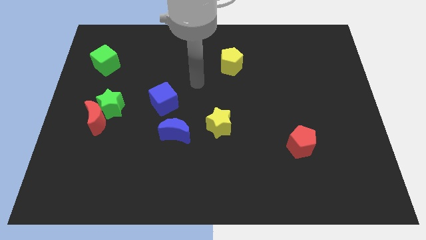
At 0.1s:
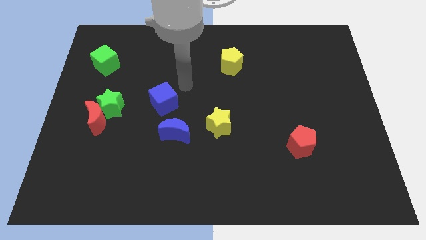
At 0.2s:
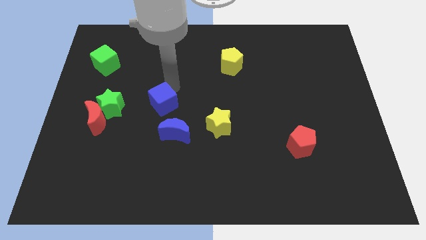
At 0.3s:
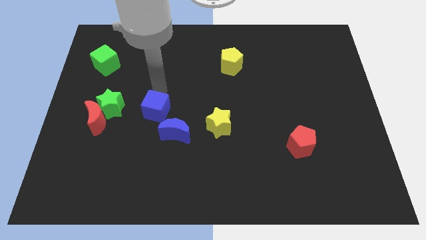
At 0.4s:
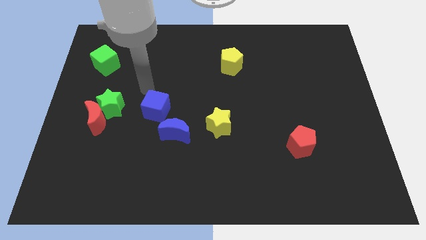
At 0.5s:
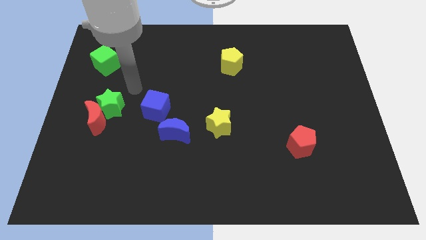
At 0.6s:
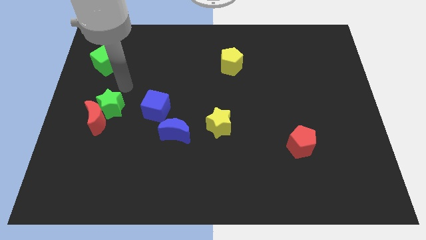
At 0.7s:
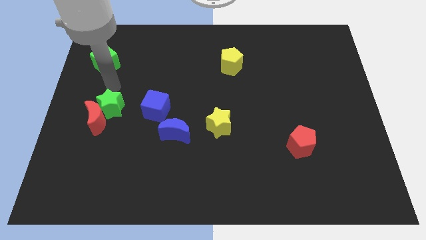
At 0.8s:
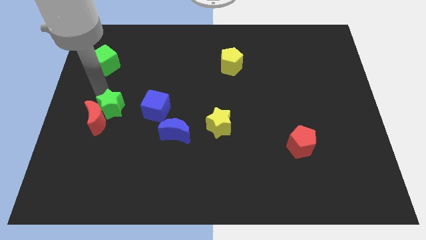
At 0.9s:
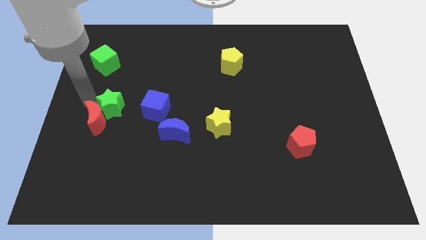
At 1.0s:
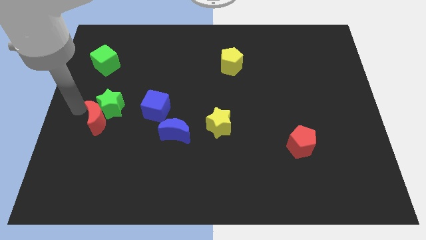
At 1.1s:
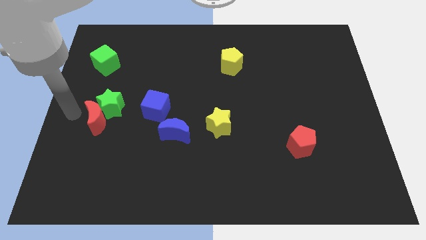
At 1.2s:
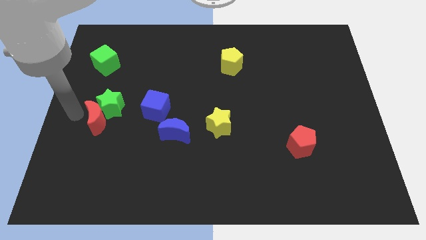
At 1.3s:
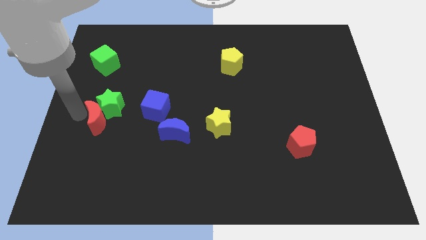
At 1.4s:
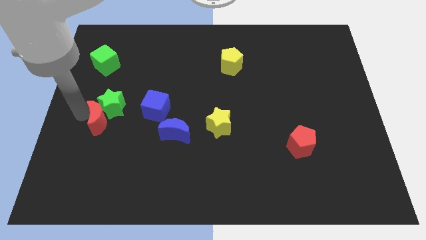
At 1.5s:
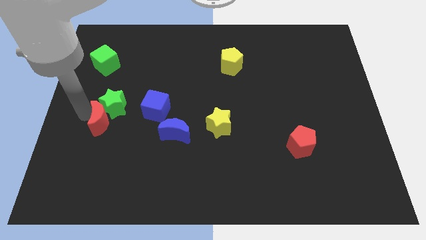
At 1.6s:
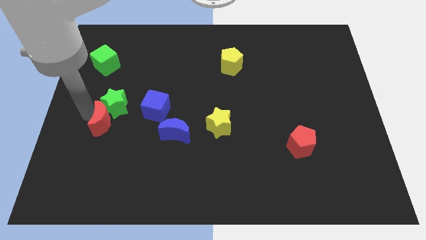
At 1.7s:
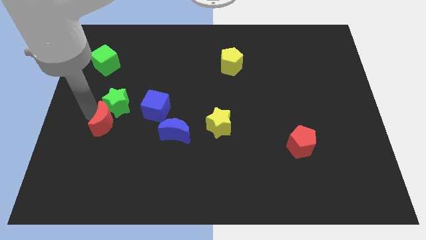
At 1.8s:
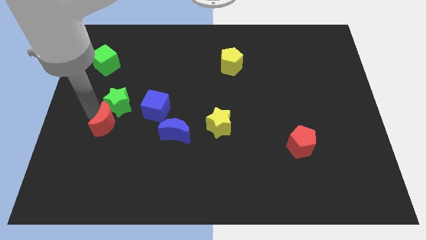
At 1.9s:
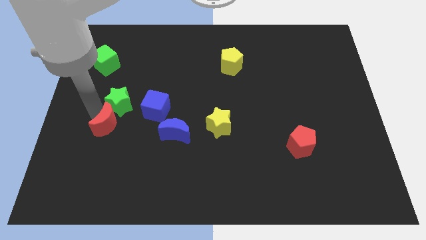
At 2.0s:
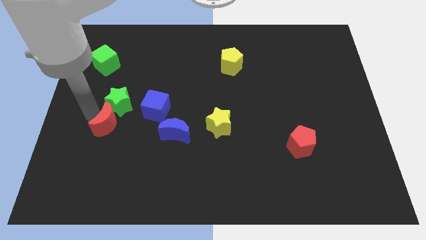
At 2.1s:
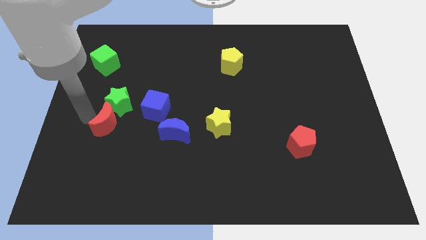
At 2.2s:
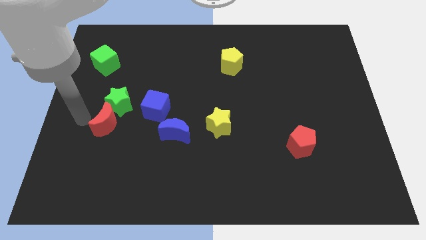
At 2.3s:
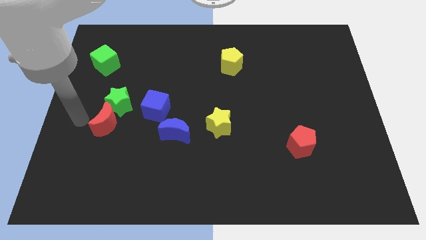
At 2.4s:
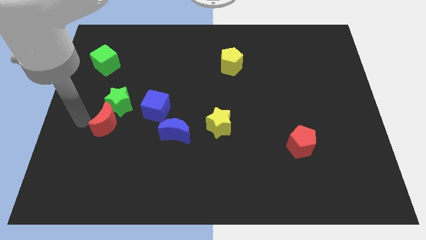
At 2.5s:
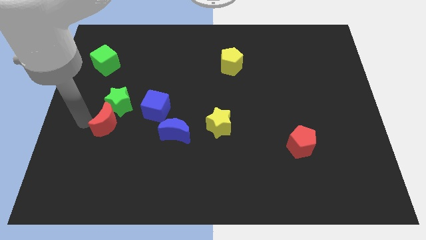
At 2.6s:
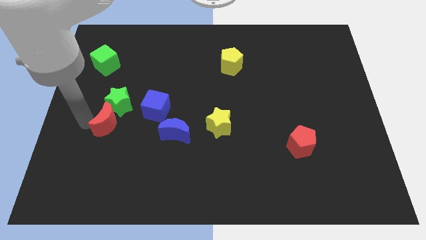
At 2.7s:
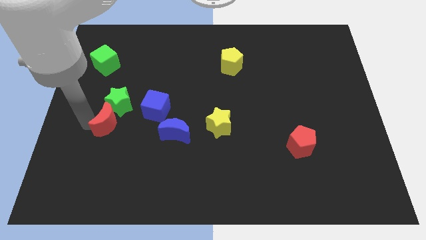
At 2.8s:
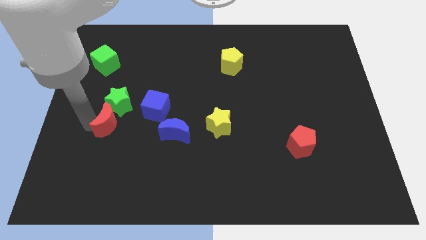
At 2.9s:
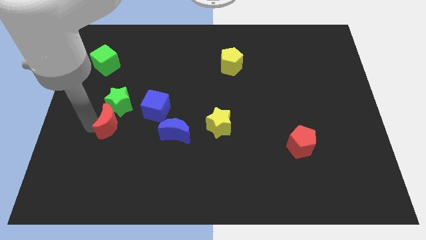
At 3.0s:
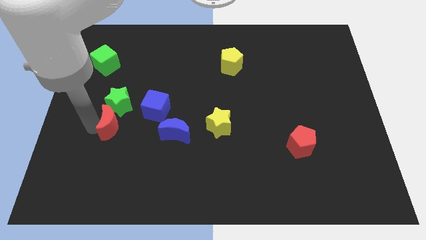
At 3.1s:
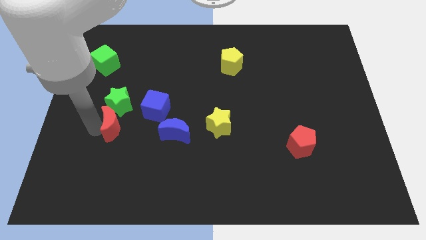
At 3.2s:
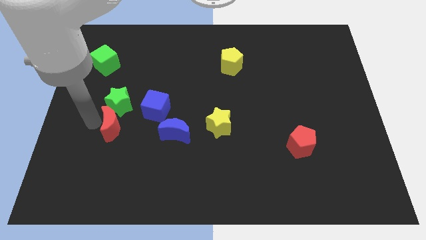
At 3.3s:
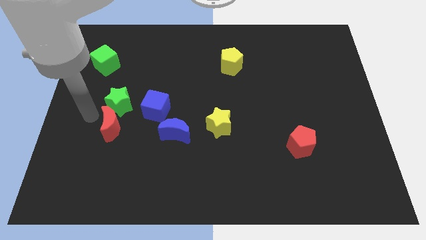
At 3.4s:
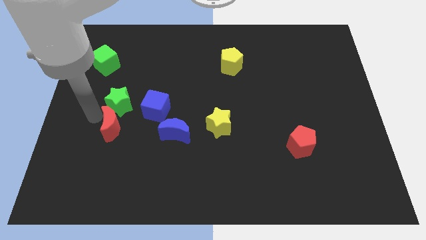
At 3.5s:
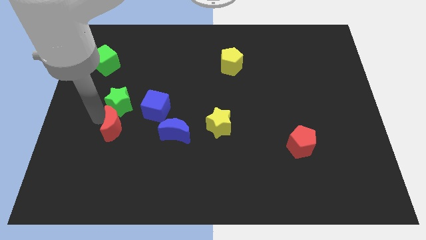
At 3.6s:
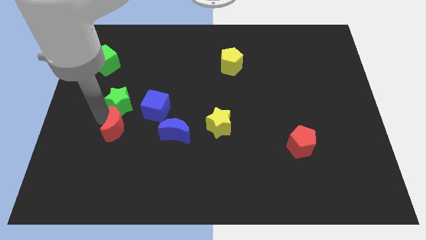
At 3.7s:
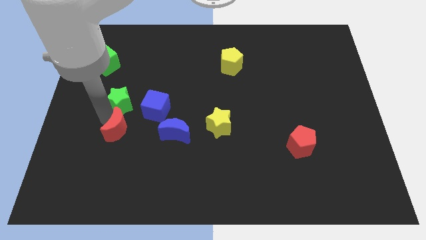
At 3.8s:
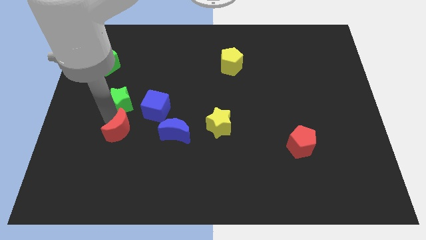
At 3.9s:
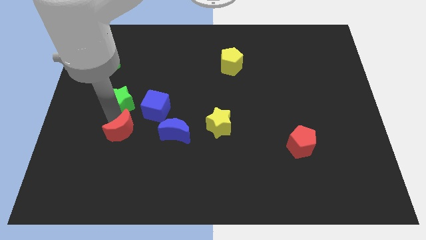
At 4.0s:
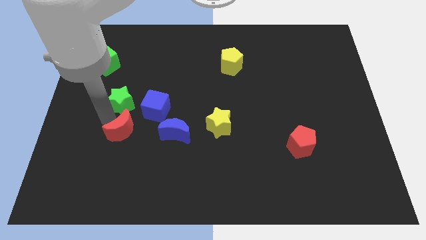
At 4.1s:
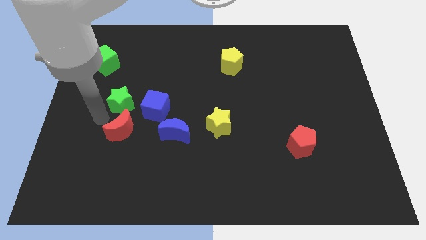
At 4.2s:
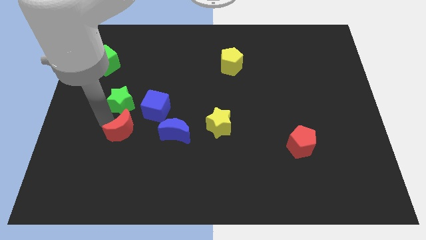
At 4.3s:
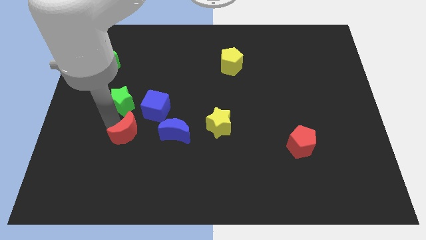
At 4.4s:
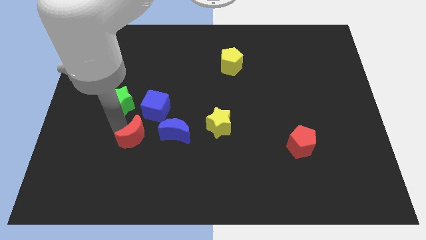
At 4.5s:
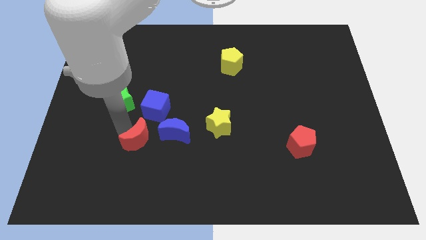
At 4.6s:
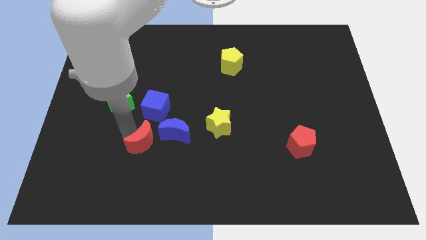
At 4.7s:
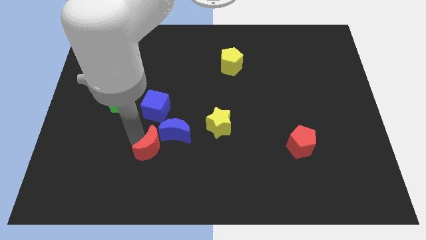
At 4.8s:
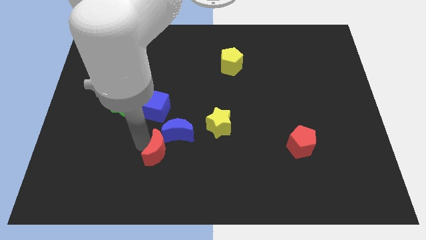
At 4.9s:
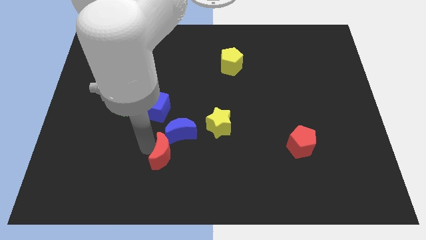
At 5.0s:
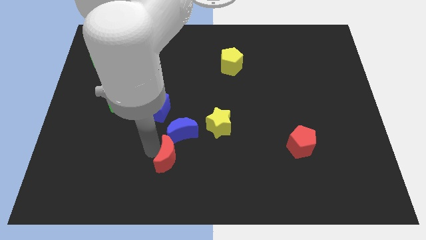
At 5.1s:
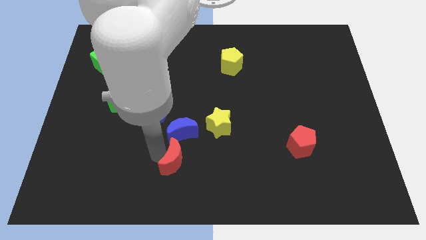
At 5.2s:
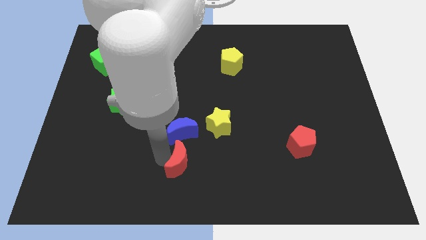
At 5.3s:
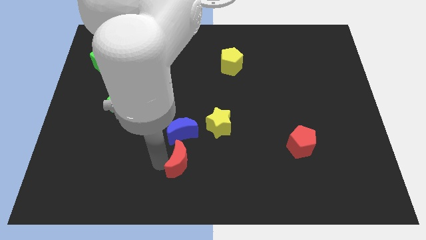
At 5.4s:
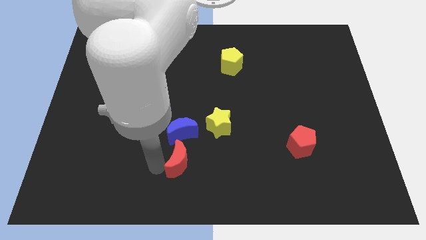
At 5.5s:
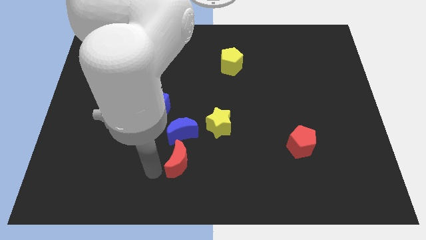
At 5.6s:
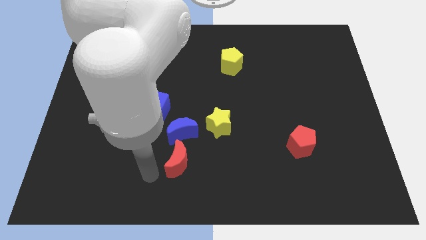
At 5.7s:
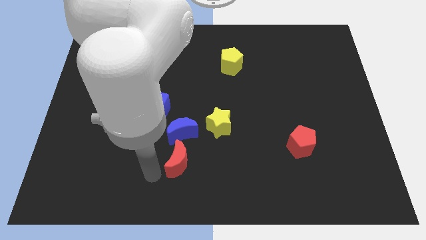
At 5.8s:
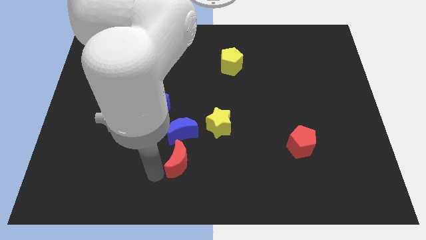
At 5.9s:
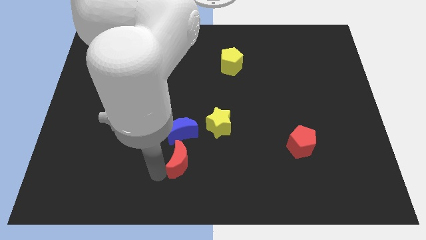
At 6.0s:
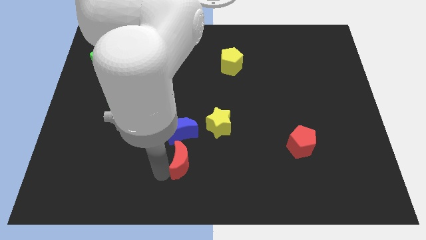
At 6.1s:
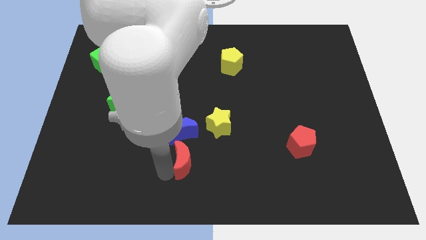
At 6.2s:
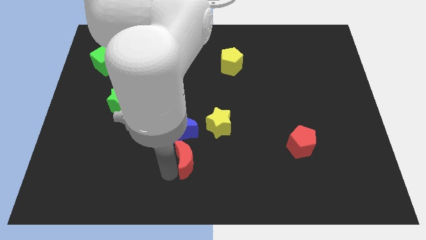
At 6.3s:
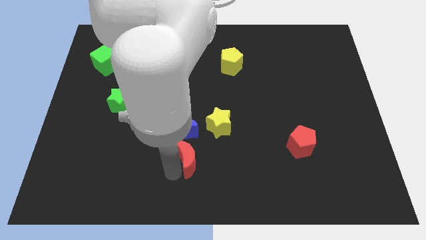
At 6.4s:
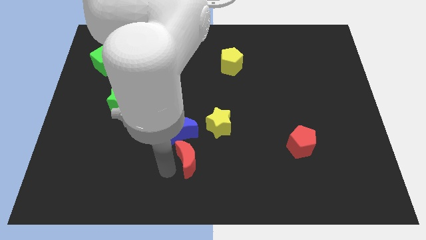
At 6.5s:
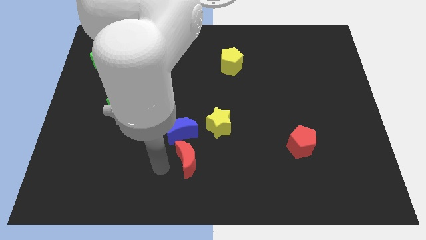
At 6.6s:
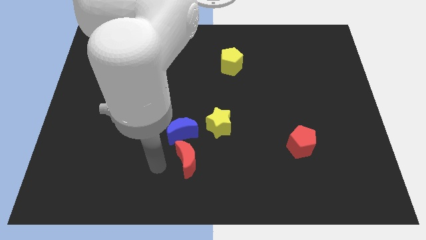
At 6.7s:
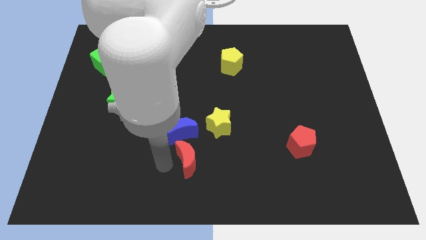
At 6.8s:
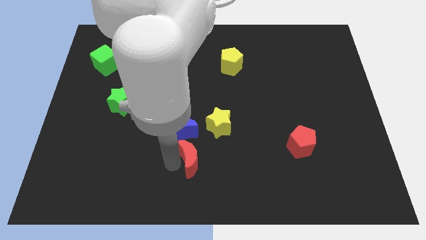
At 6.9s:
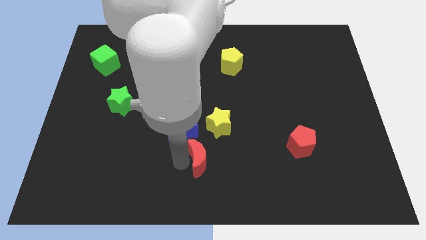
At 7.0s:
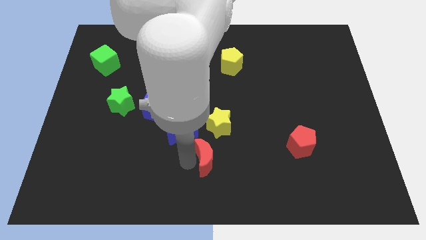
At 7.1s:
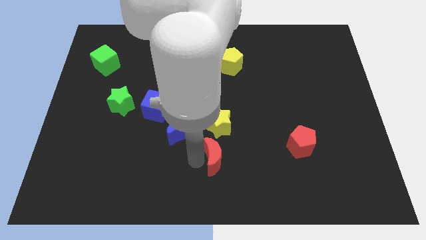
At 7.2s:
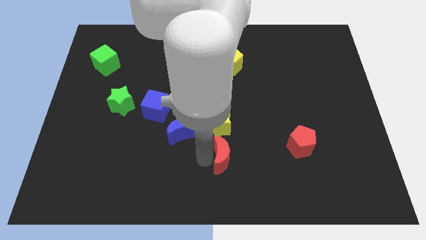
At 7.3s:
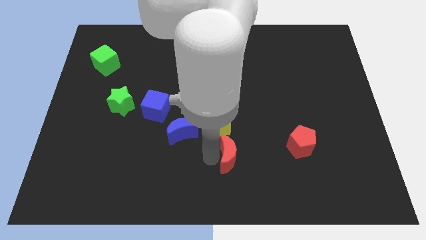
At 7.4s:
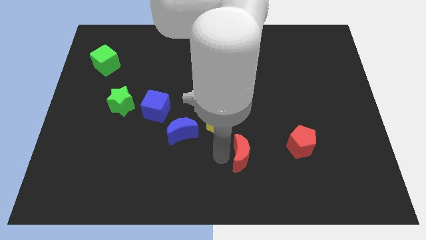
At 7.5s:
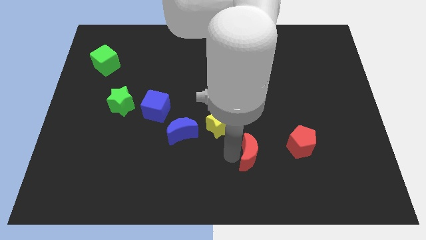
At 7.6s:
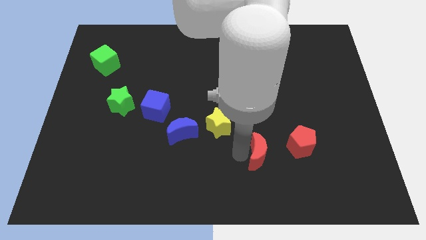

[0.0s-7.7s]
push the red moon to the bottom left side of the red pentagon
